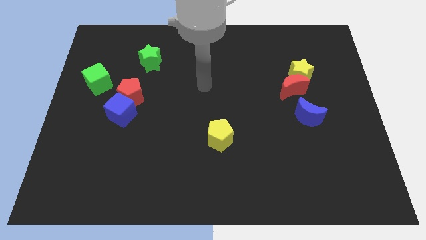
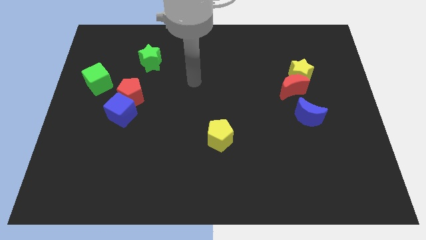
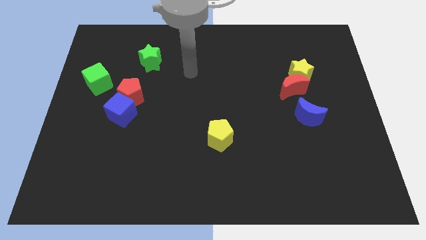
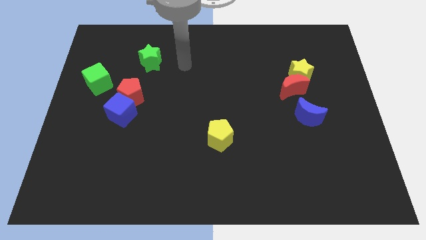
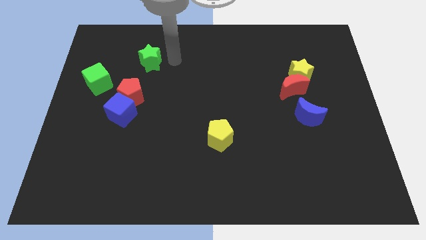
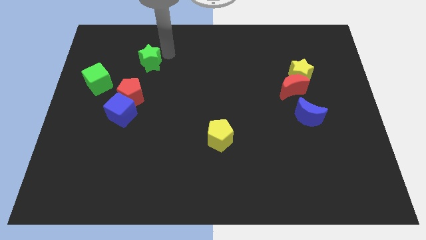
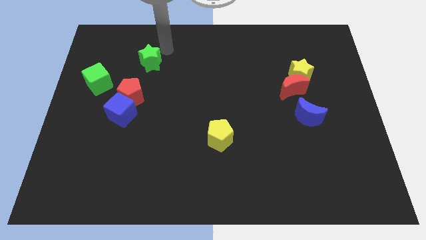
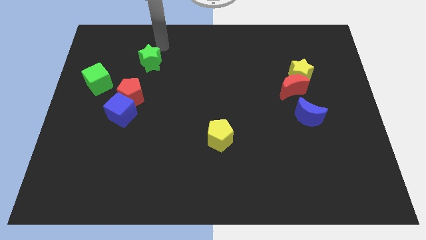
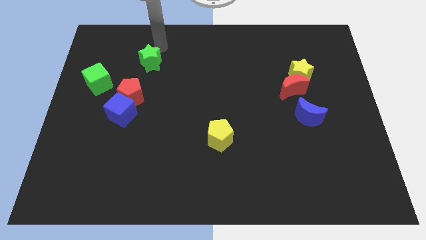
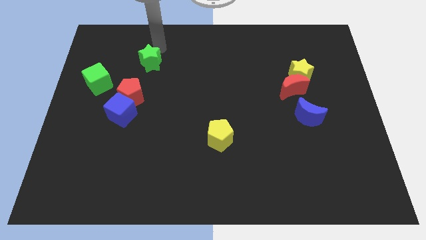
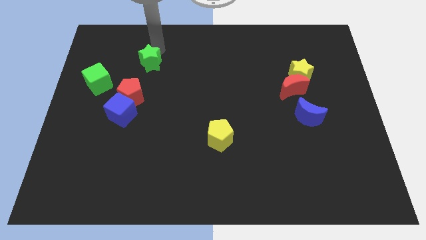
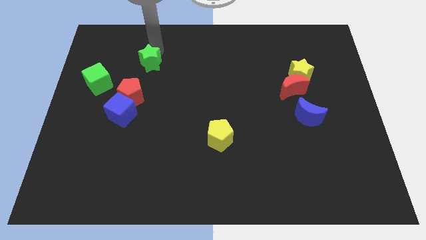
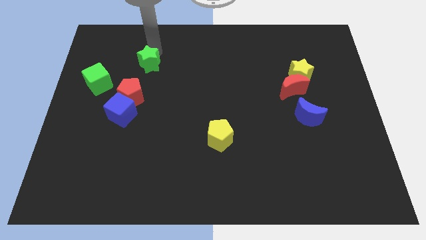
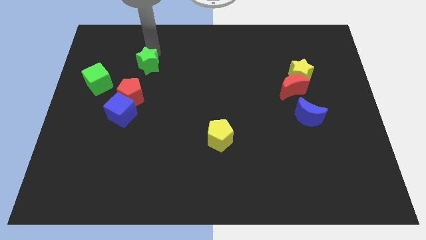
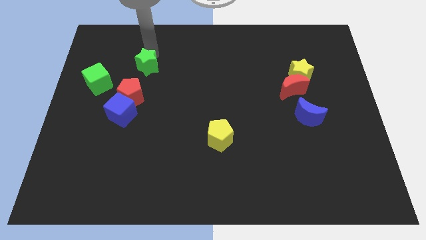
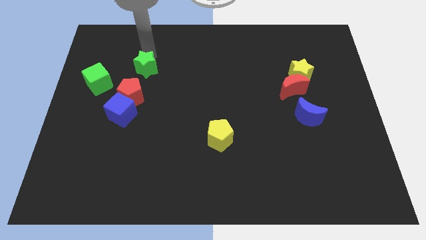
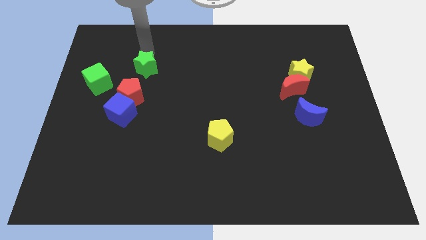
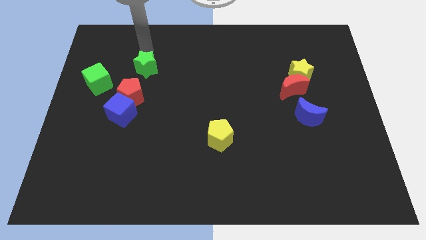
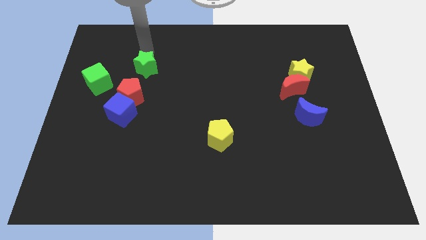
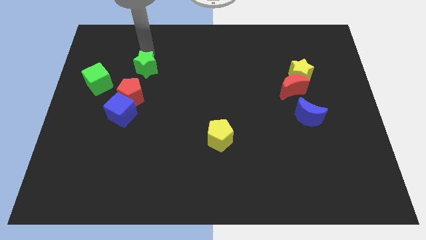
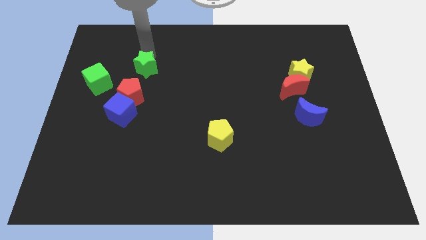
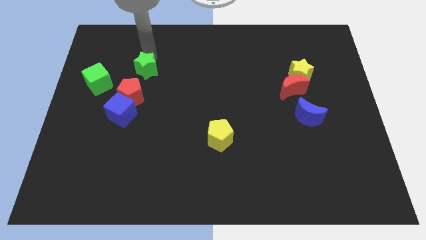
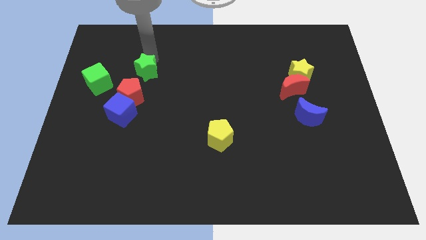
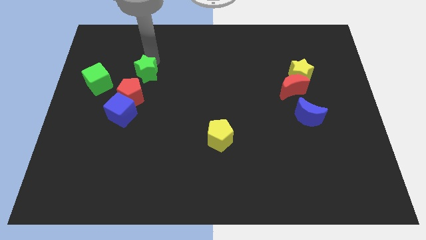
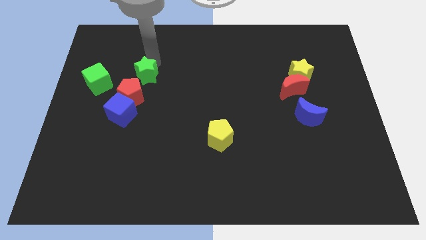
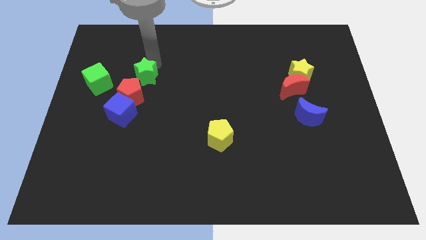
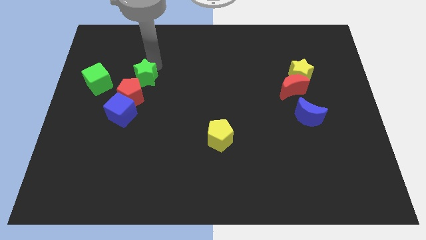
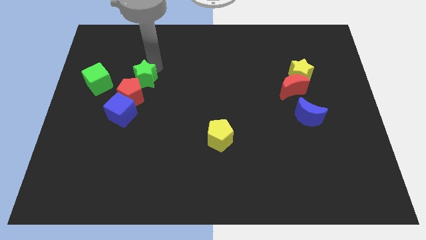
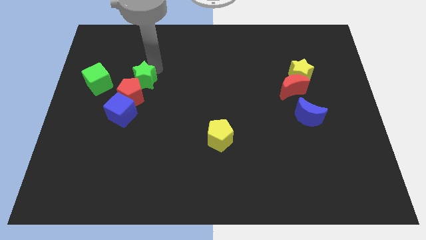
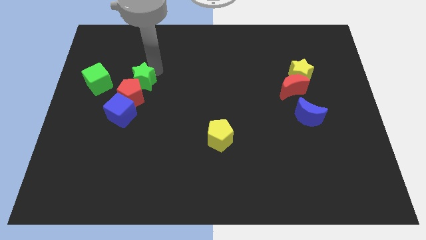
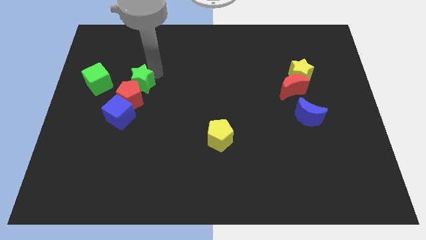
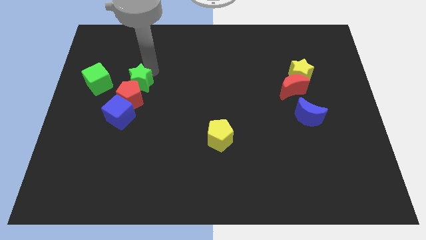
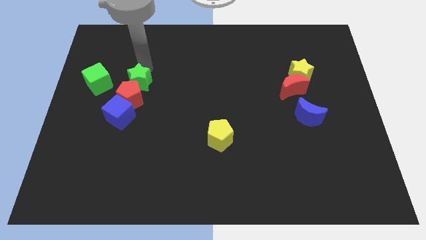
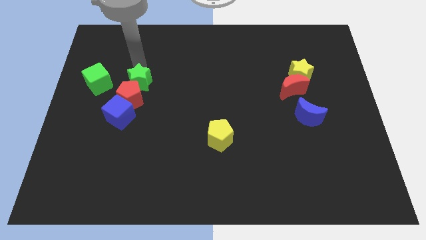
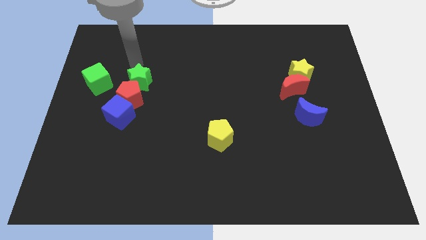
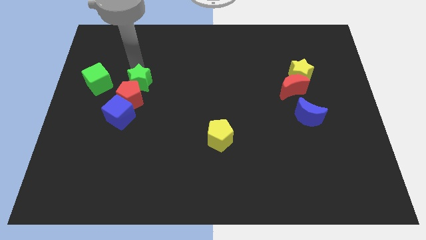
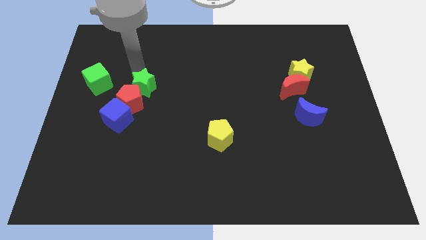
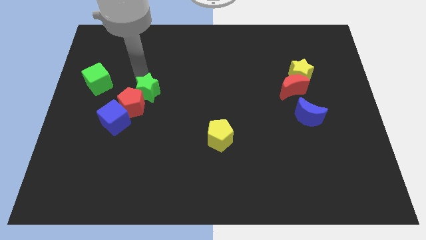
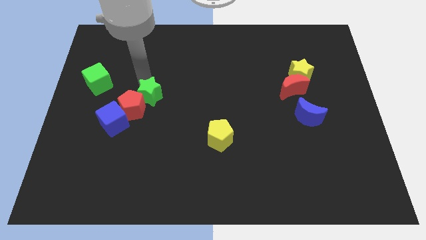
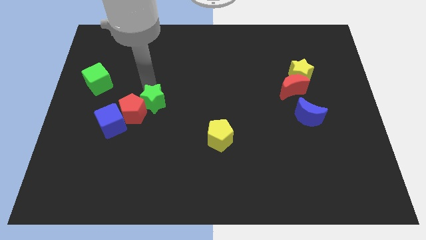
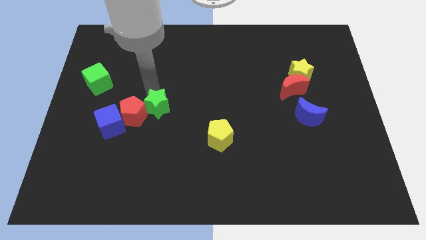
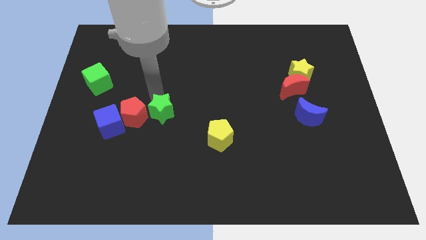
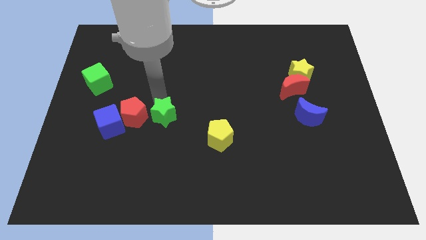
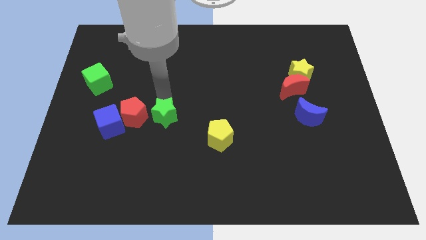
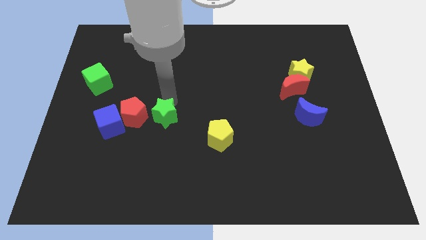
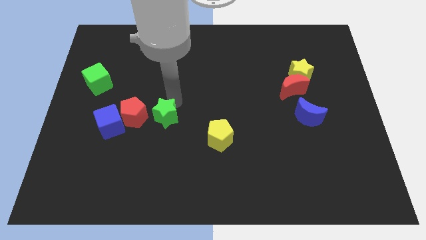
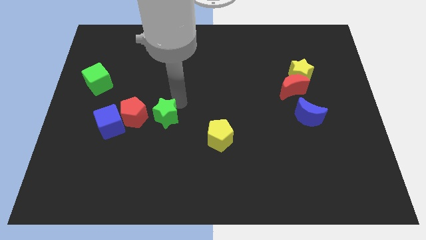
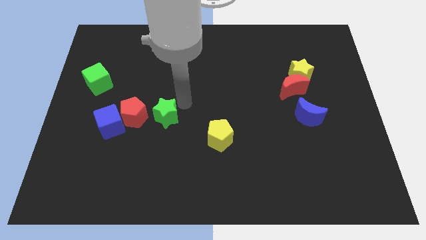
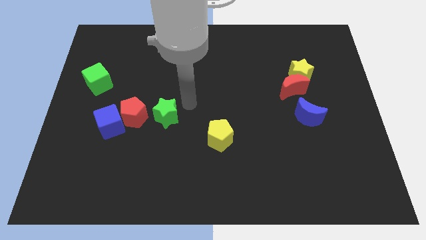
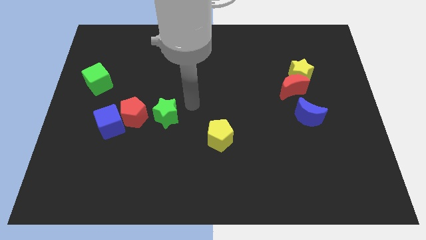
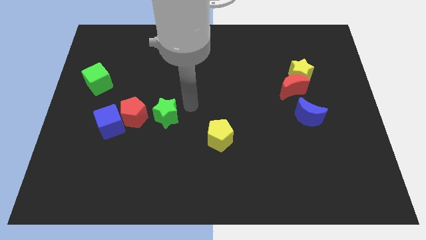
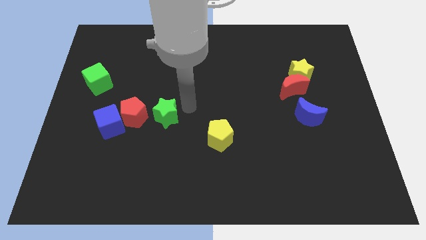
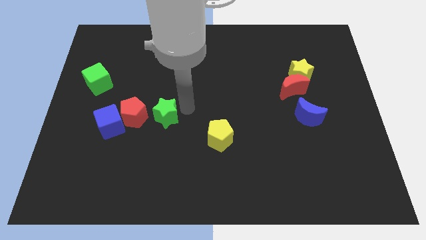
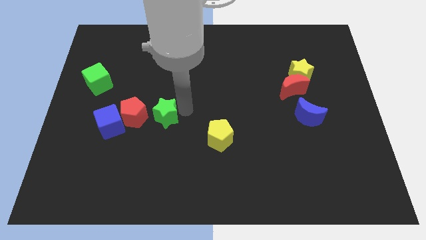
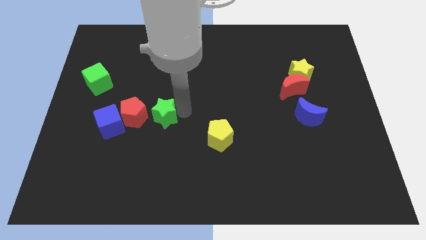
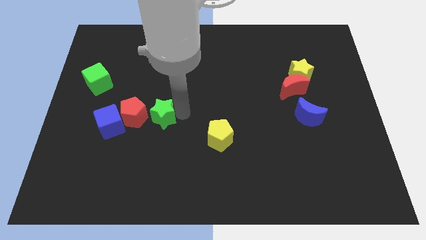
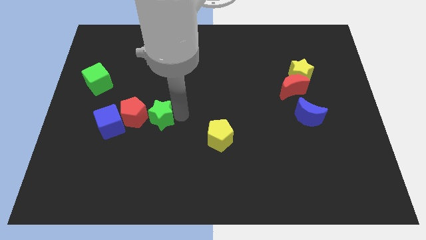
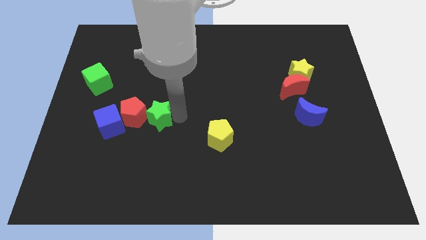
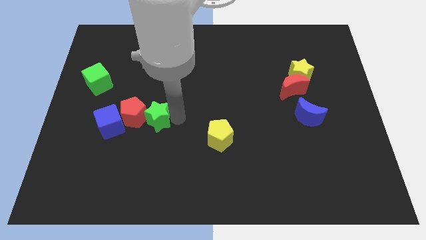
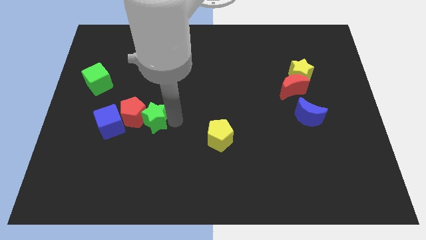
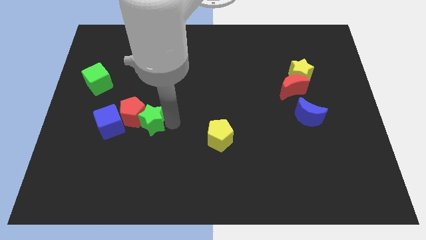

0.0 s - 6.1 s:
move the green star downwards

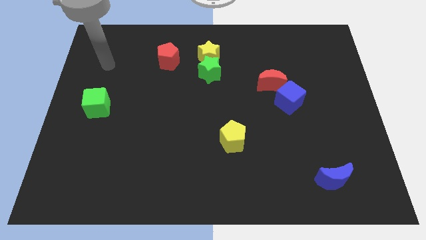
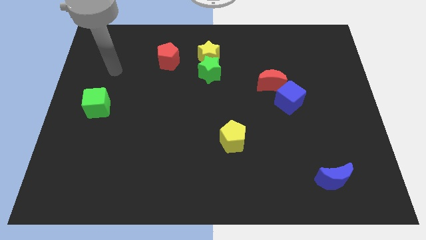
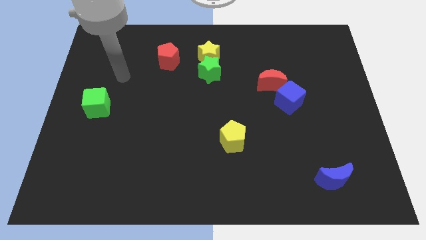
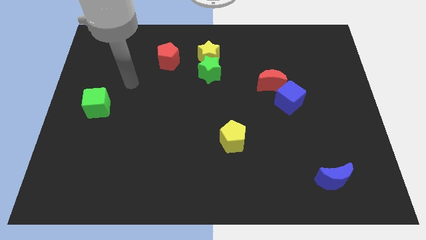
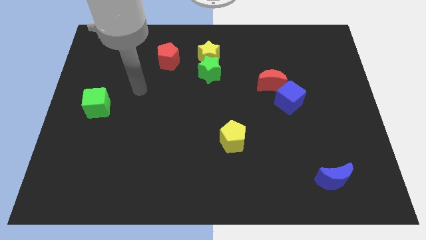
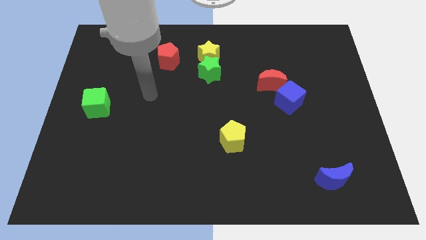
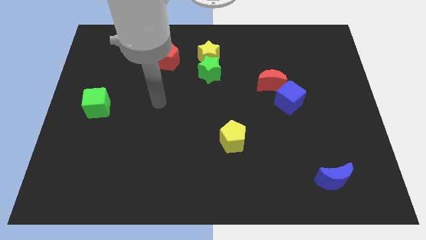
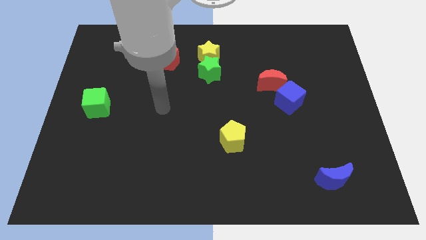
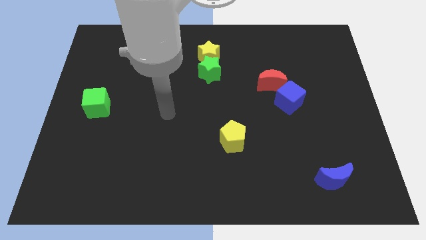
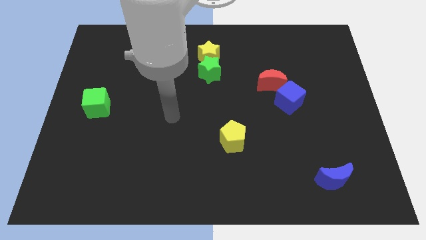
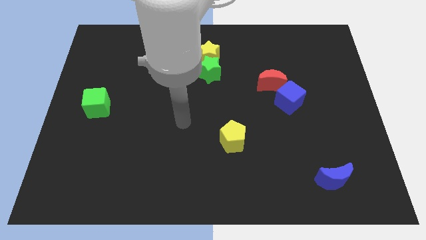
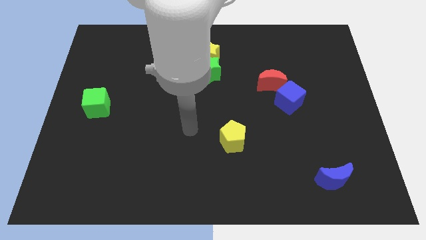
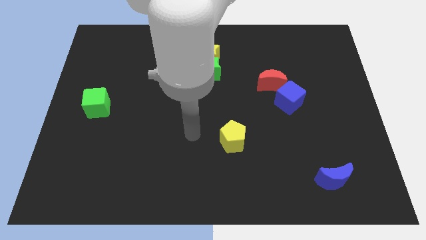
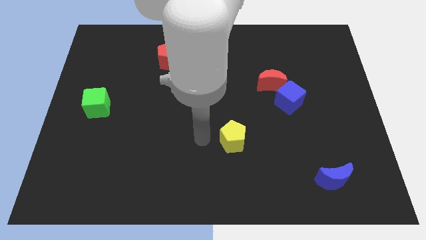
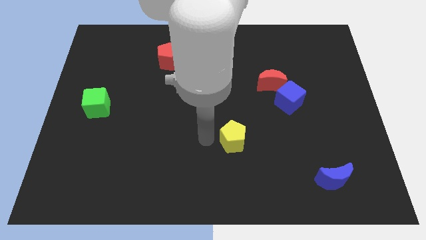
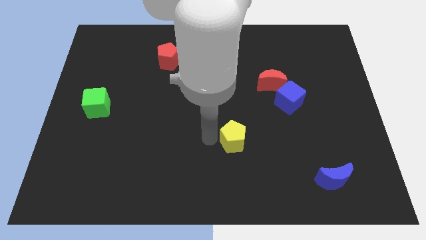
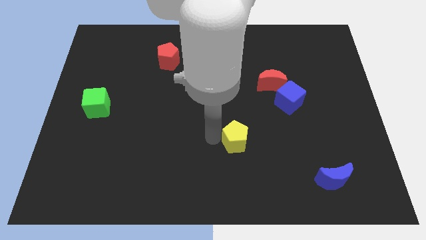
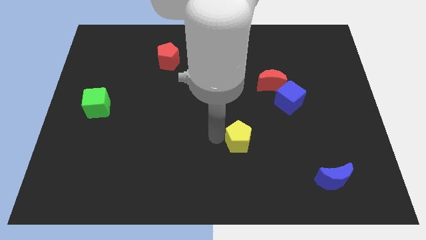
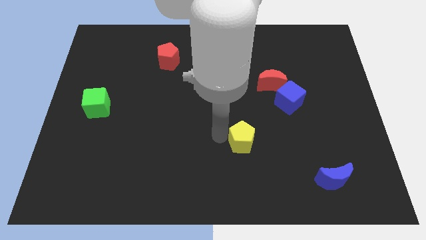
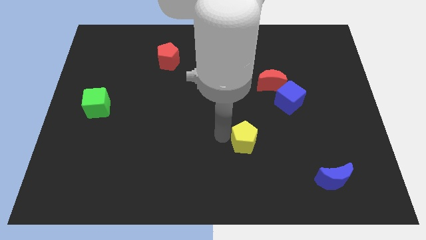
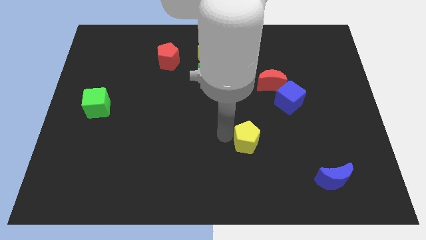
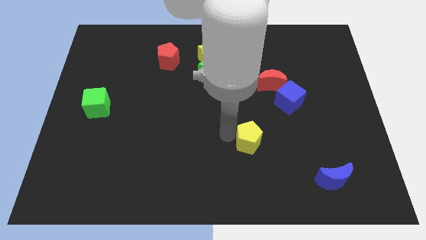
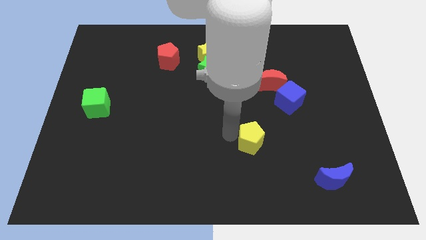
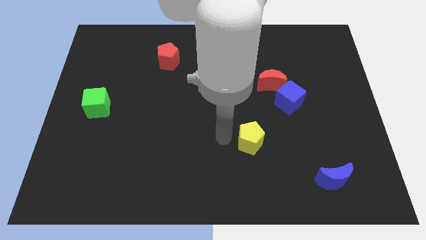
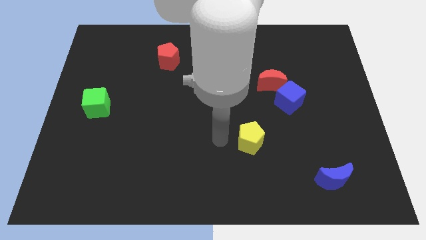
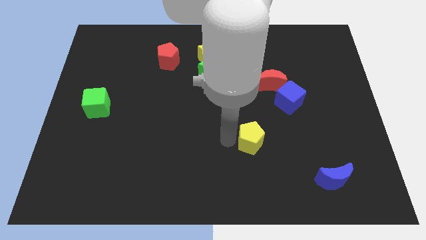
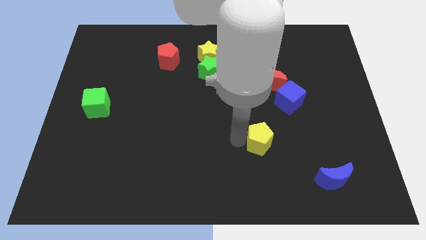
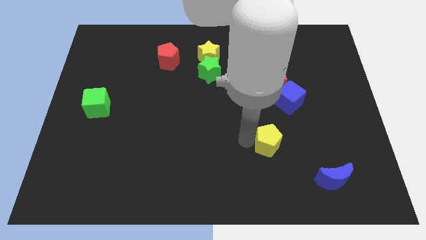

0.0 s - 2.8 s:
move the yellow pentagon to the right a bit
